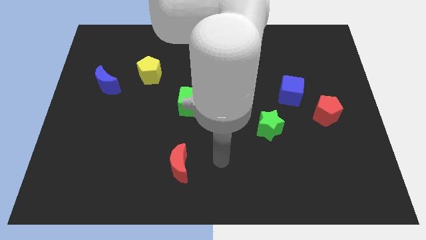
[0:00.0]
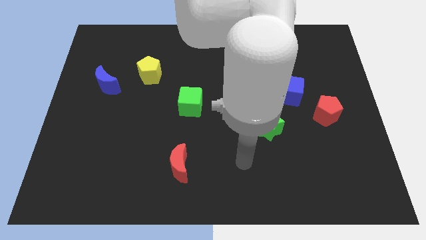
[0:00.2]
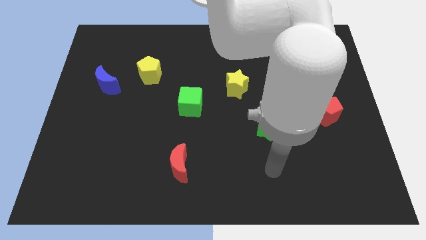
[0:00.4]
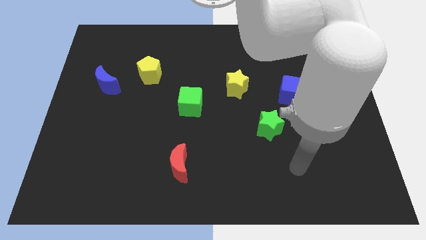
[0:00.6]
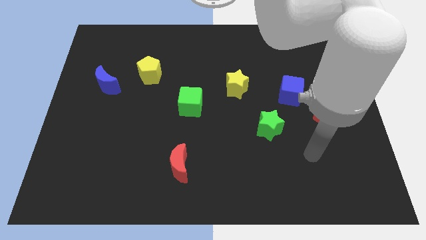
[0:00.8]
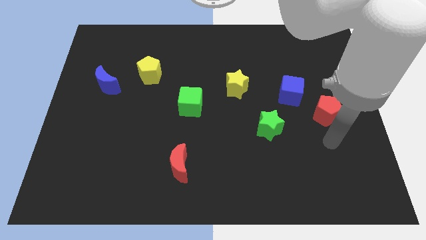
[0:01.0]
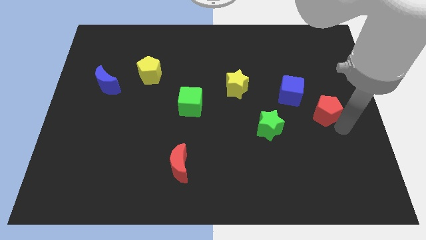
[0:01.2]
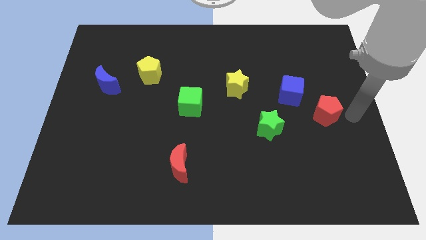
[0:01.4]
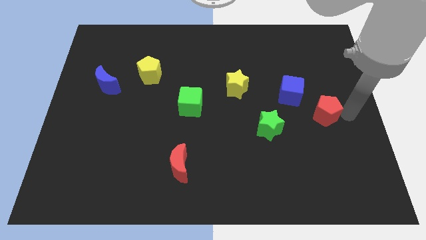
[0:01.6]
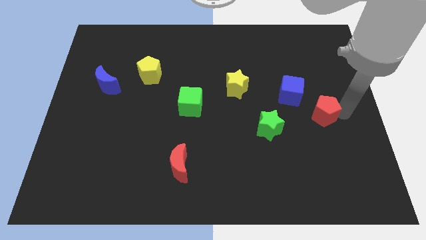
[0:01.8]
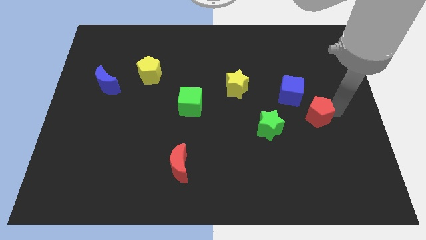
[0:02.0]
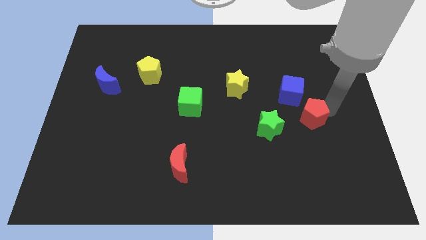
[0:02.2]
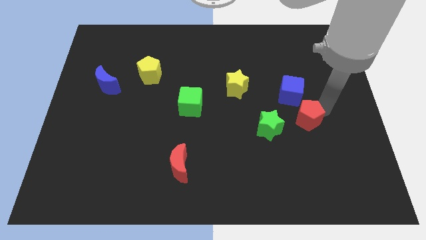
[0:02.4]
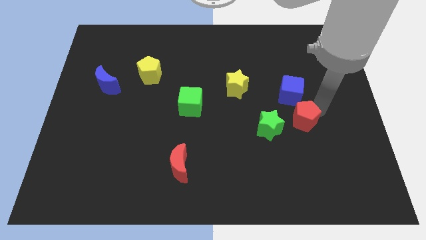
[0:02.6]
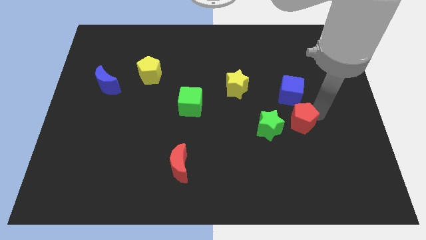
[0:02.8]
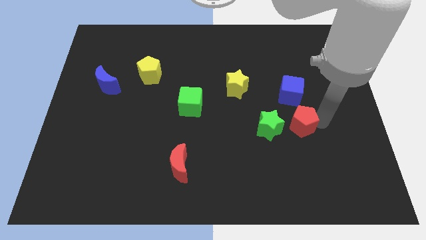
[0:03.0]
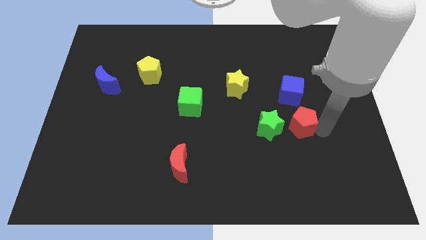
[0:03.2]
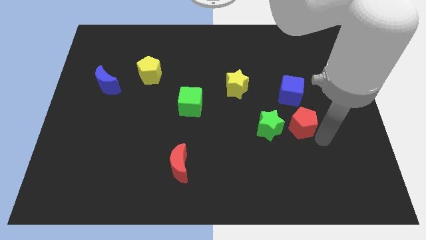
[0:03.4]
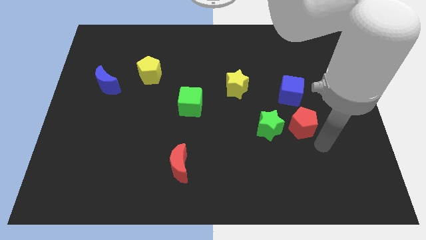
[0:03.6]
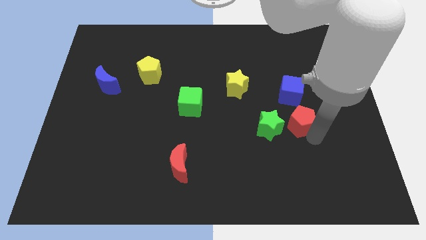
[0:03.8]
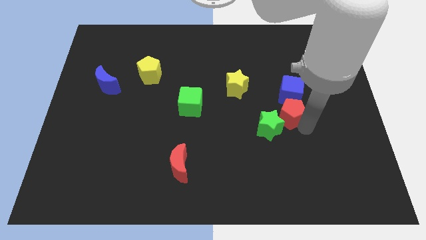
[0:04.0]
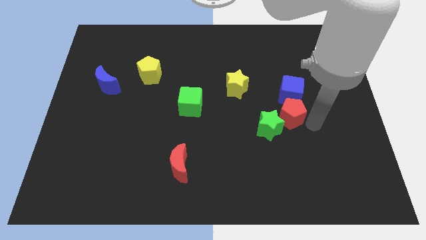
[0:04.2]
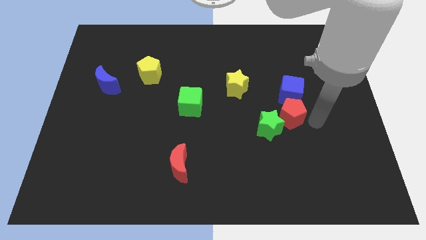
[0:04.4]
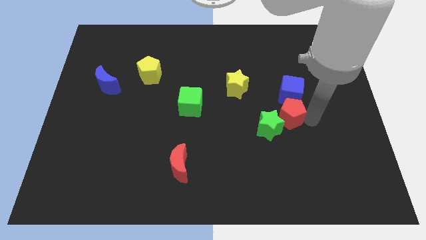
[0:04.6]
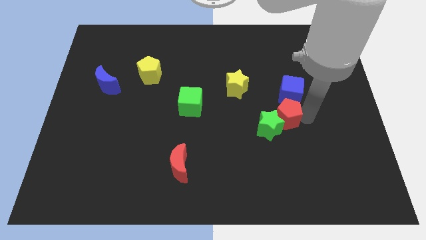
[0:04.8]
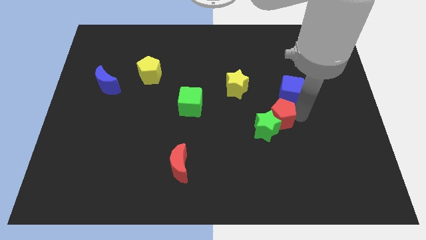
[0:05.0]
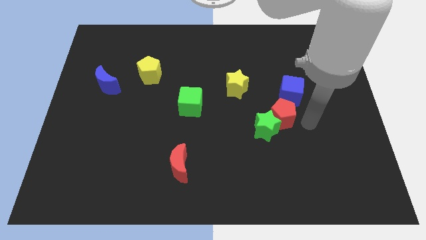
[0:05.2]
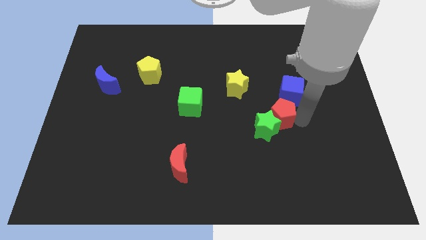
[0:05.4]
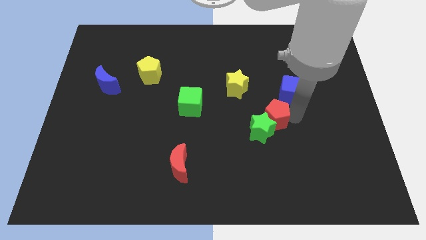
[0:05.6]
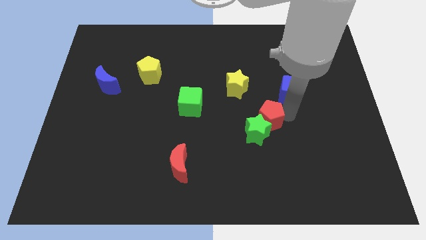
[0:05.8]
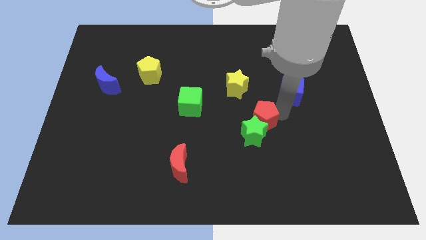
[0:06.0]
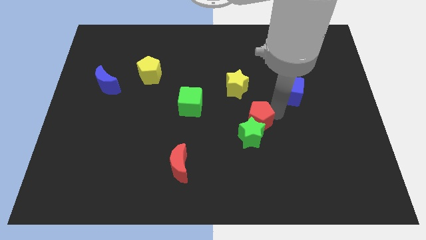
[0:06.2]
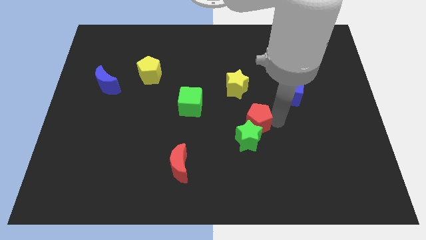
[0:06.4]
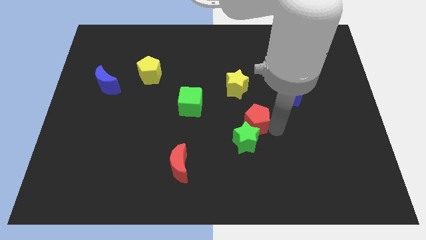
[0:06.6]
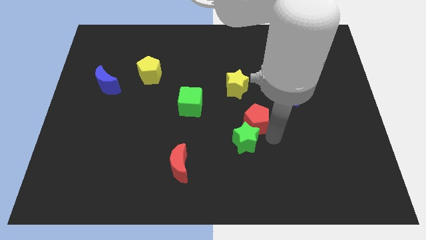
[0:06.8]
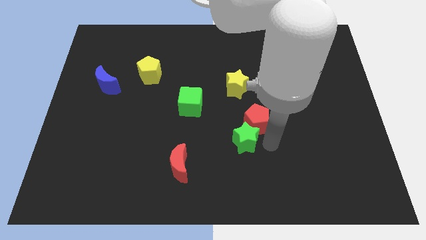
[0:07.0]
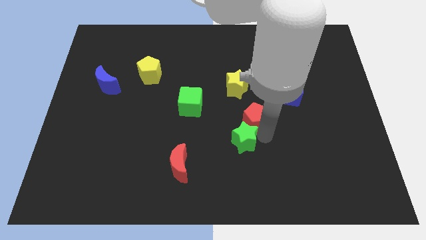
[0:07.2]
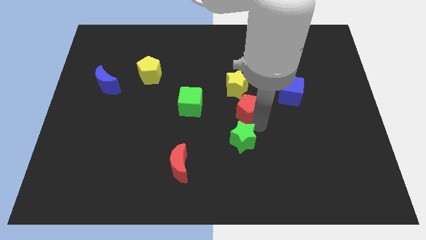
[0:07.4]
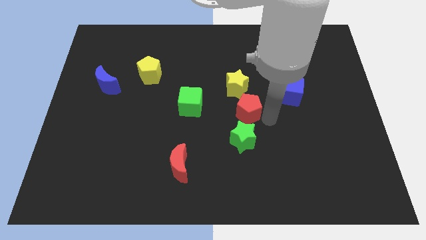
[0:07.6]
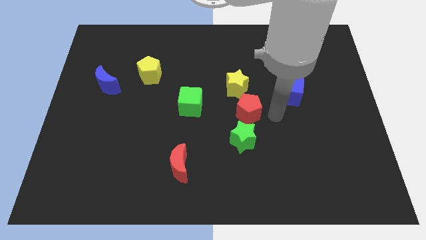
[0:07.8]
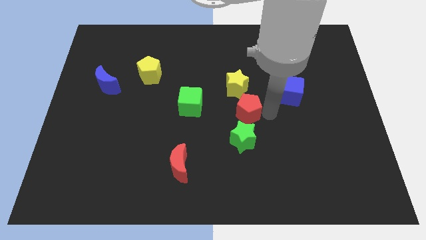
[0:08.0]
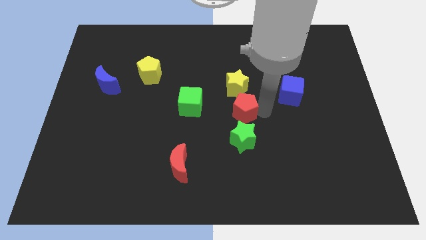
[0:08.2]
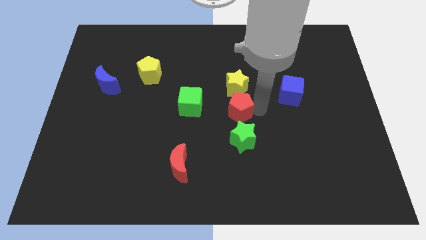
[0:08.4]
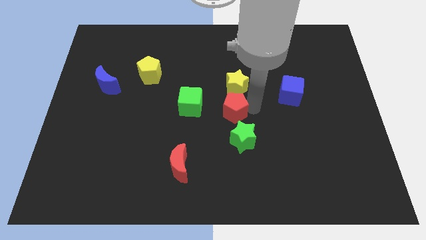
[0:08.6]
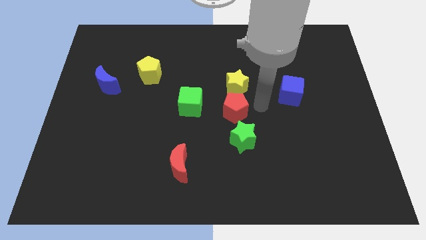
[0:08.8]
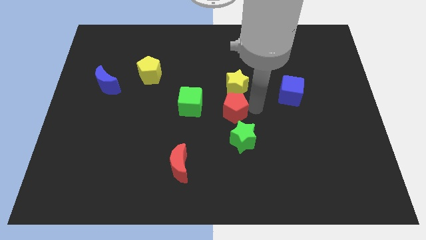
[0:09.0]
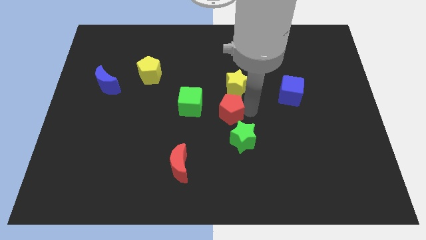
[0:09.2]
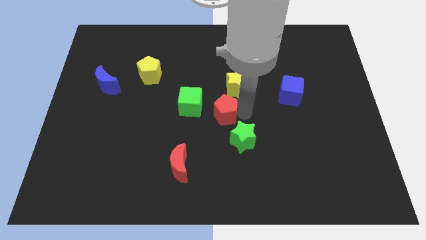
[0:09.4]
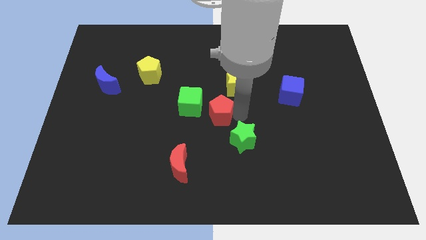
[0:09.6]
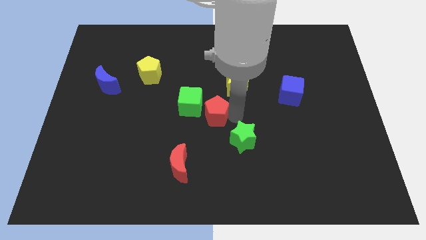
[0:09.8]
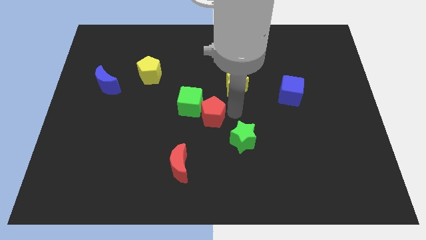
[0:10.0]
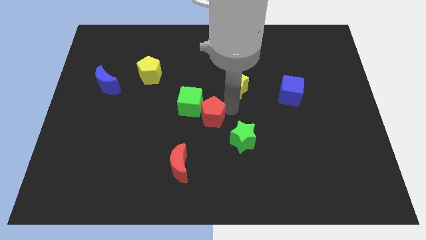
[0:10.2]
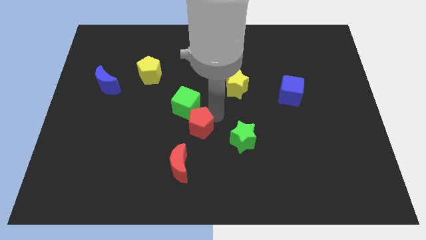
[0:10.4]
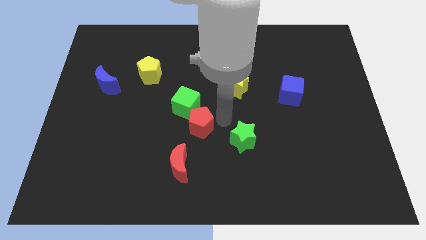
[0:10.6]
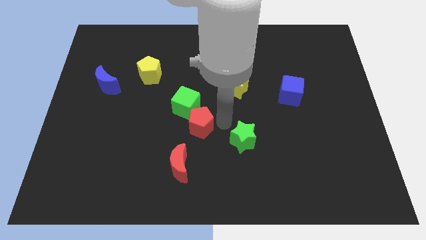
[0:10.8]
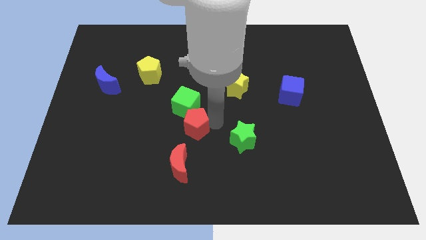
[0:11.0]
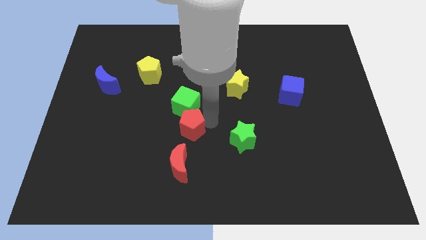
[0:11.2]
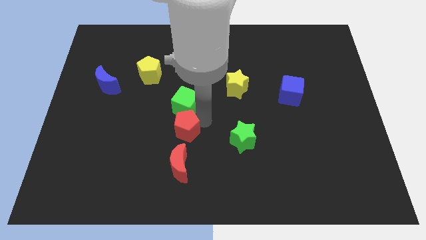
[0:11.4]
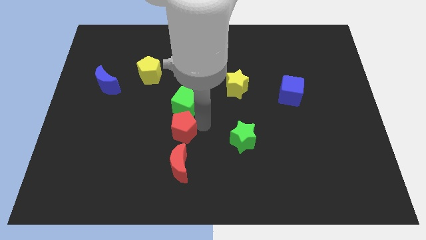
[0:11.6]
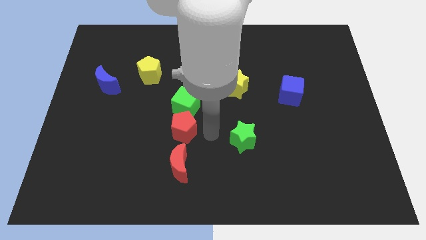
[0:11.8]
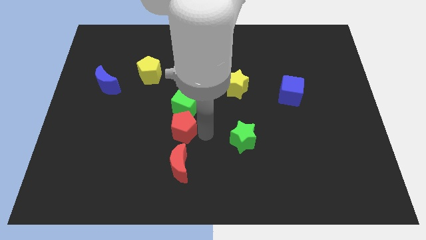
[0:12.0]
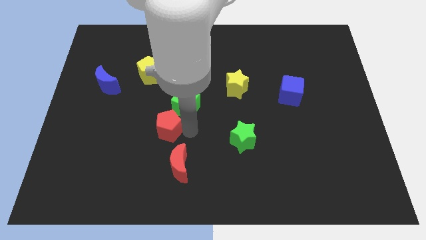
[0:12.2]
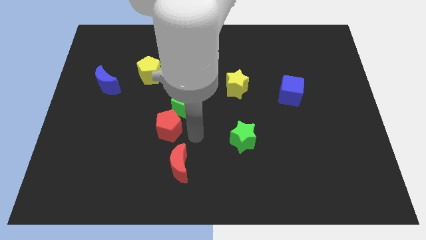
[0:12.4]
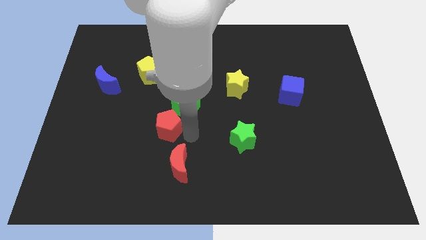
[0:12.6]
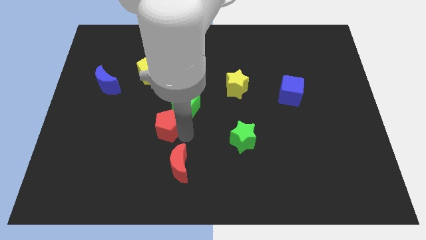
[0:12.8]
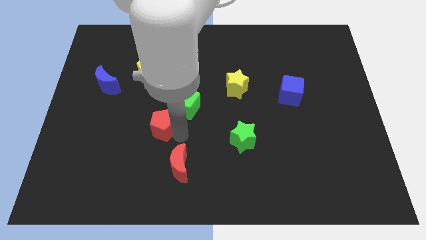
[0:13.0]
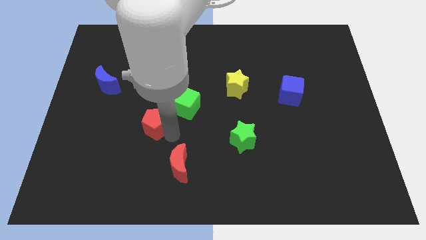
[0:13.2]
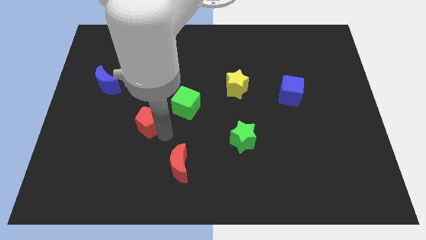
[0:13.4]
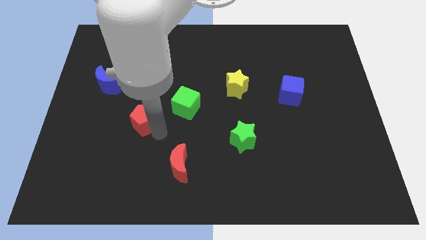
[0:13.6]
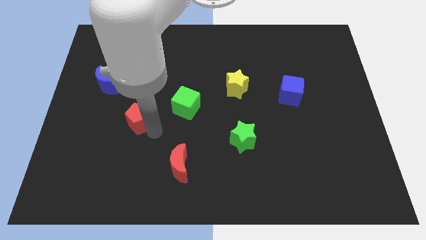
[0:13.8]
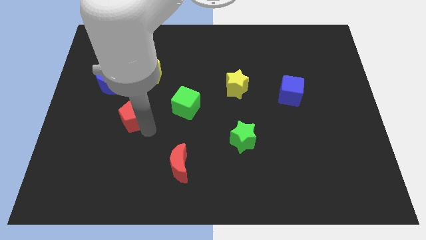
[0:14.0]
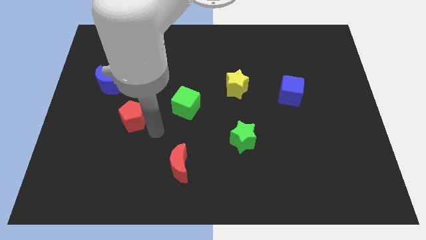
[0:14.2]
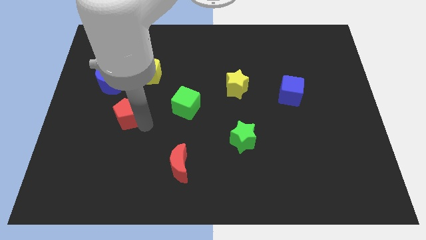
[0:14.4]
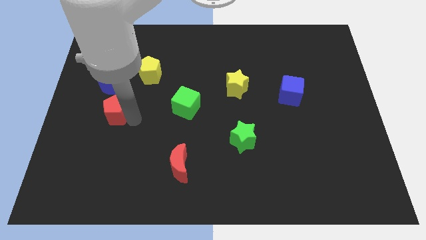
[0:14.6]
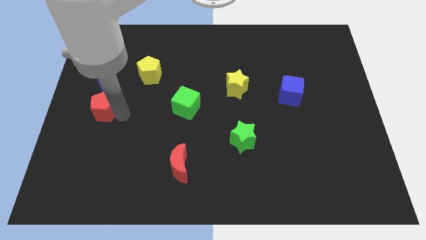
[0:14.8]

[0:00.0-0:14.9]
push the red pentagon to the left side of the board

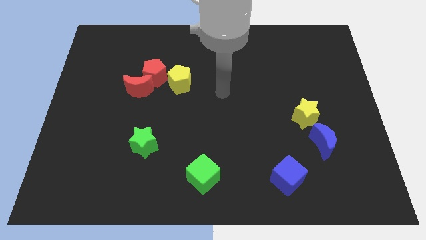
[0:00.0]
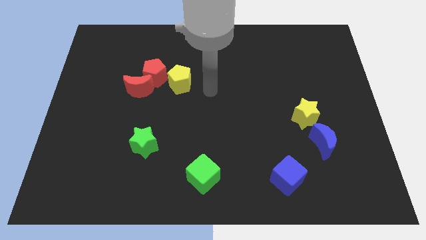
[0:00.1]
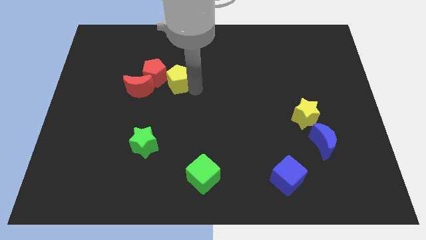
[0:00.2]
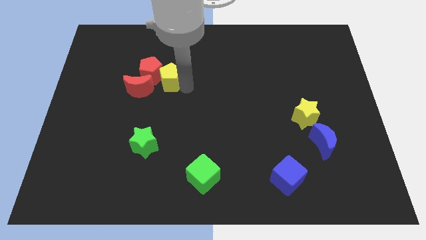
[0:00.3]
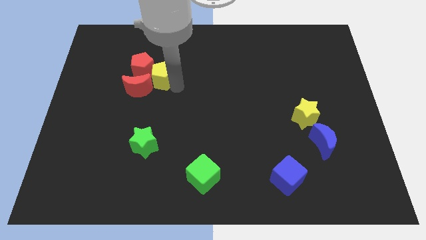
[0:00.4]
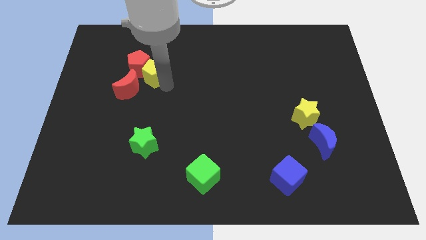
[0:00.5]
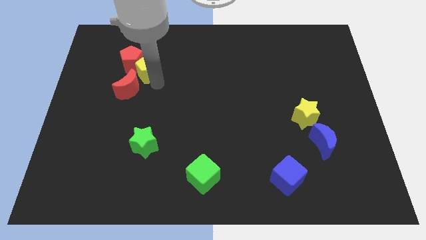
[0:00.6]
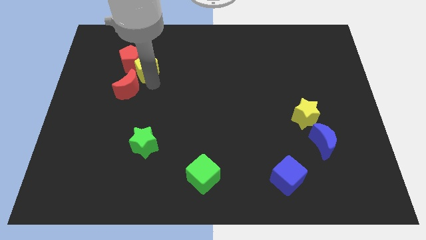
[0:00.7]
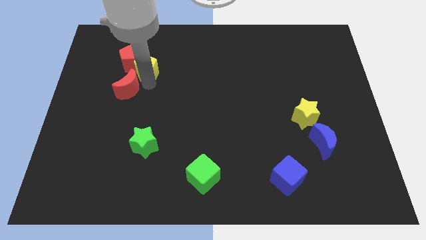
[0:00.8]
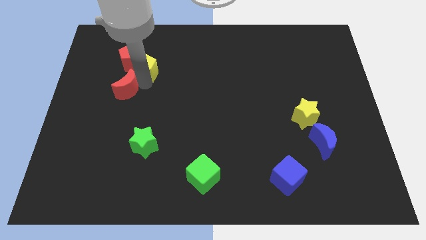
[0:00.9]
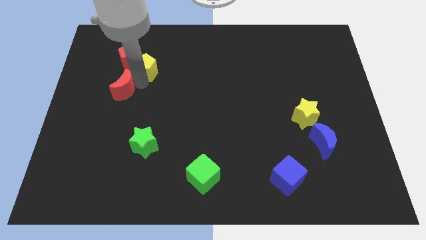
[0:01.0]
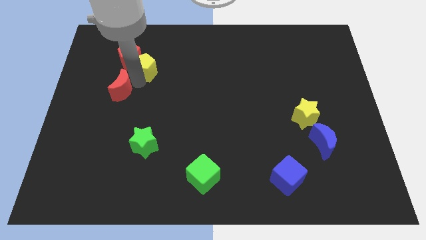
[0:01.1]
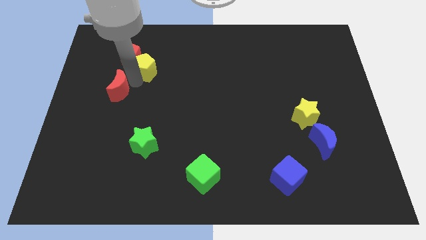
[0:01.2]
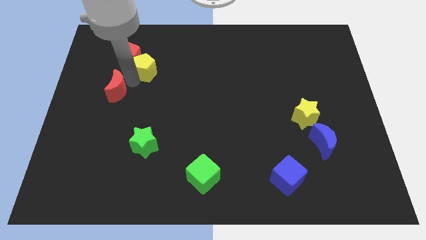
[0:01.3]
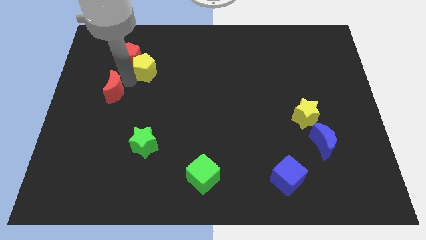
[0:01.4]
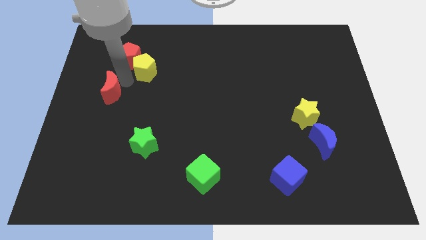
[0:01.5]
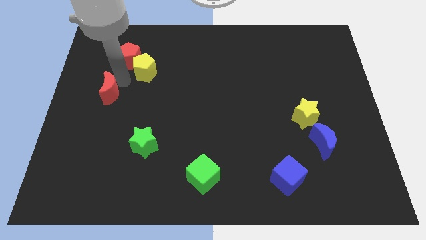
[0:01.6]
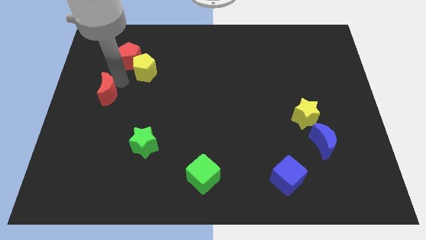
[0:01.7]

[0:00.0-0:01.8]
push the red moon to the left side of the board
